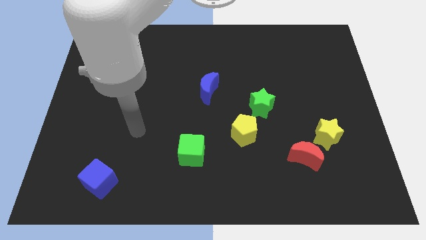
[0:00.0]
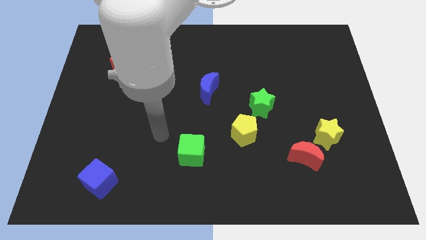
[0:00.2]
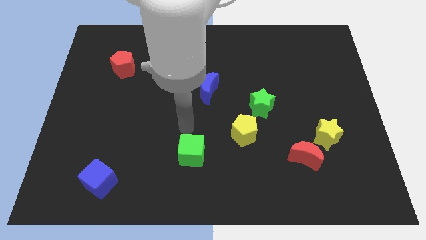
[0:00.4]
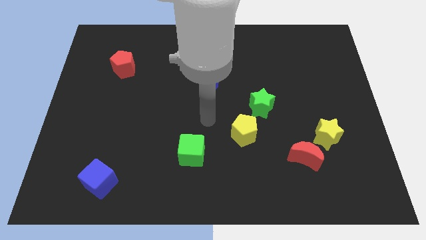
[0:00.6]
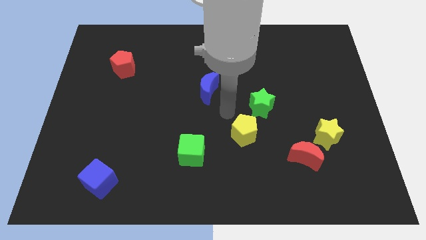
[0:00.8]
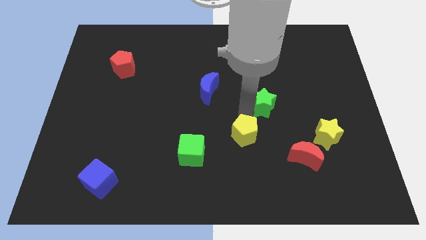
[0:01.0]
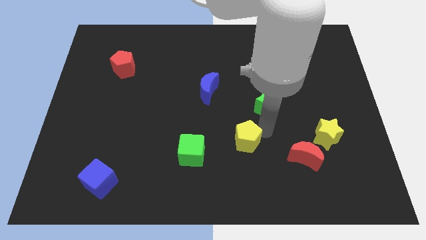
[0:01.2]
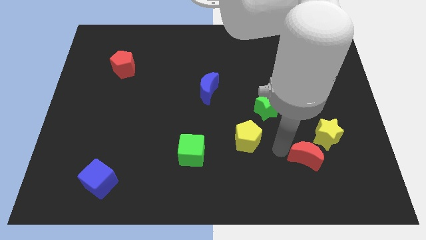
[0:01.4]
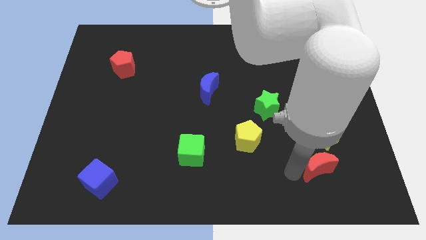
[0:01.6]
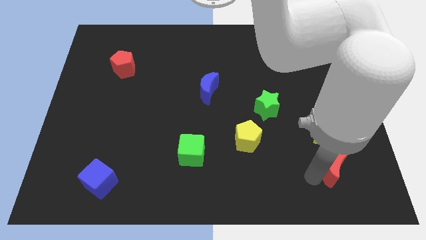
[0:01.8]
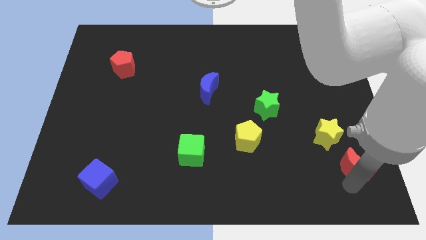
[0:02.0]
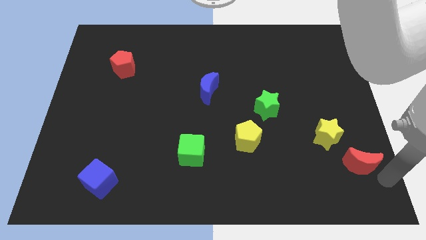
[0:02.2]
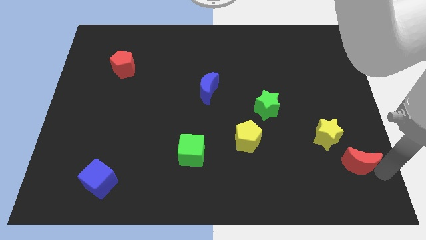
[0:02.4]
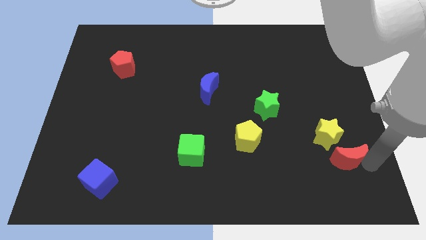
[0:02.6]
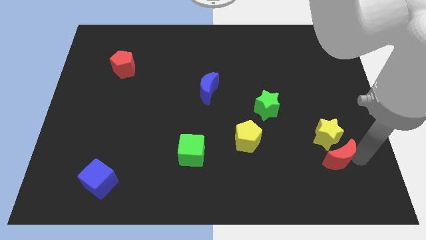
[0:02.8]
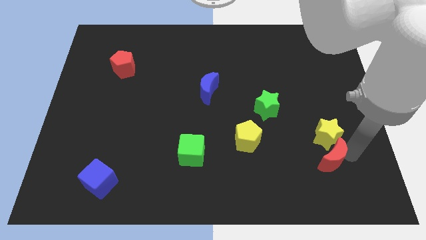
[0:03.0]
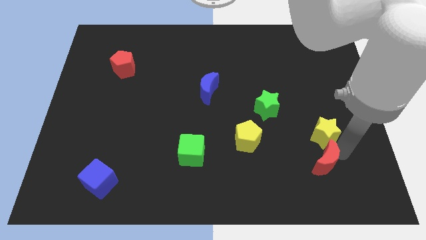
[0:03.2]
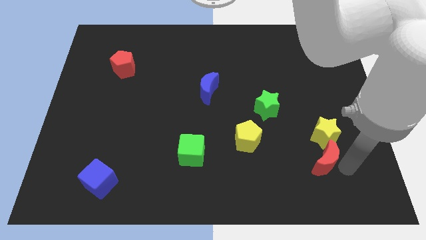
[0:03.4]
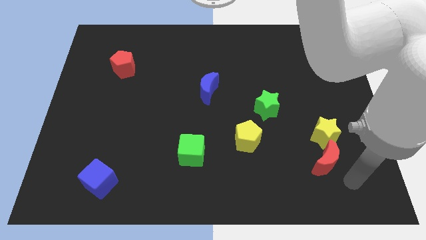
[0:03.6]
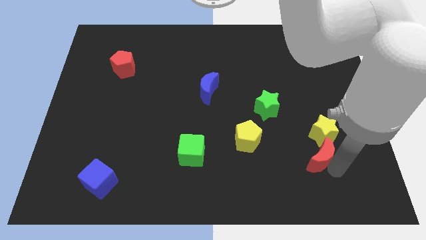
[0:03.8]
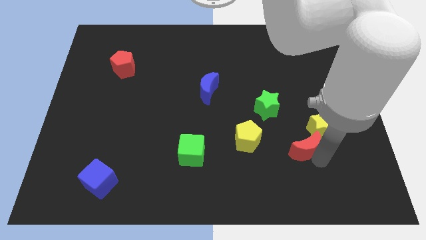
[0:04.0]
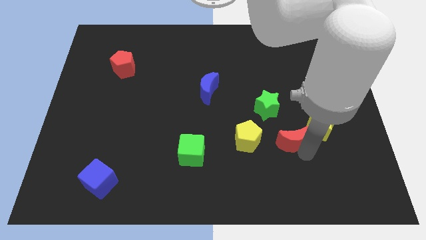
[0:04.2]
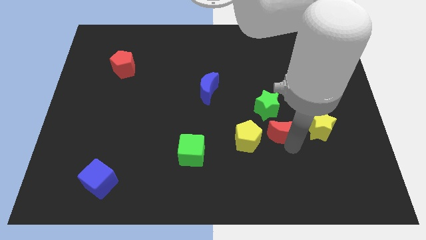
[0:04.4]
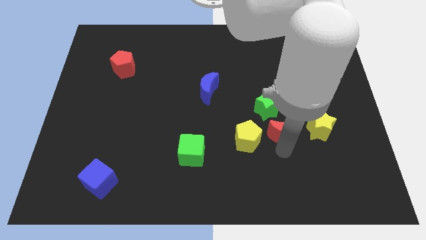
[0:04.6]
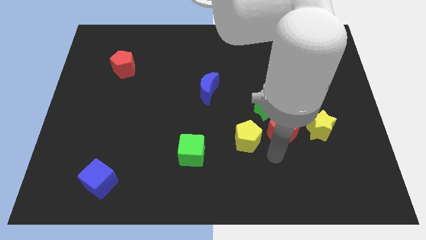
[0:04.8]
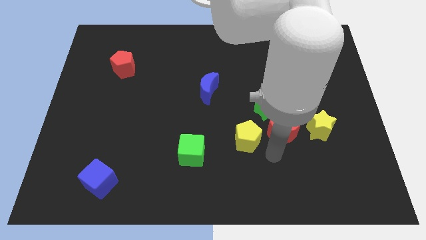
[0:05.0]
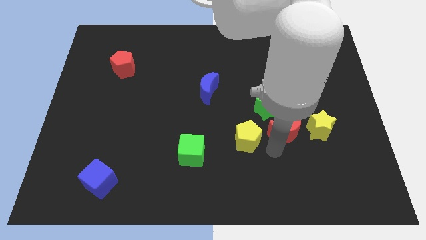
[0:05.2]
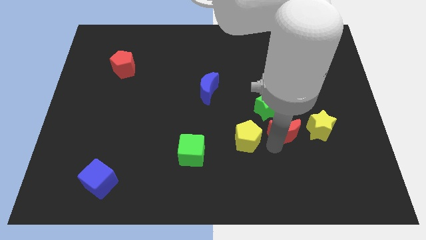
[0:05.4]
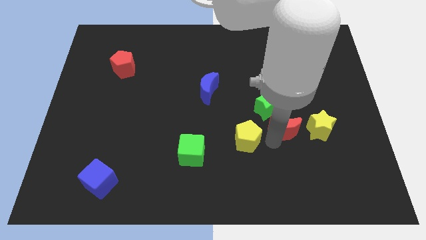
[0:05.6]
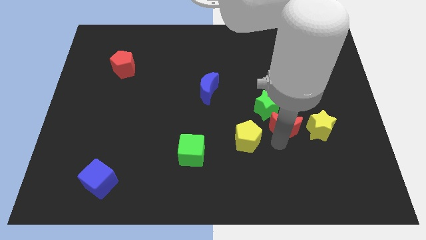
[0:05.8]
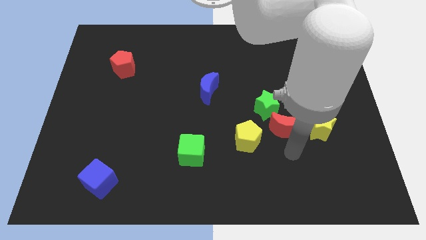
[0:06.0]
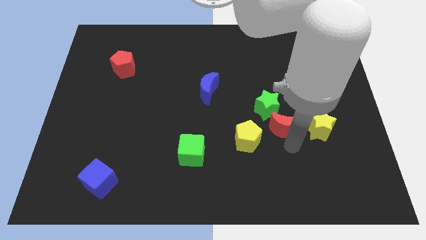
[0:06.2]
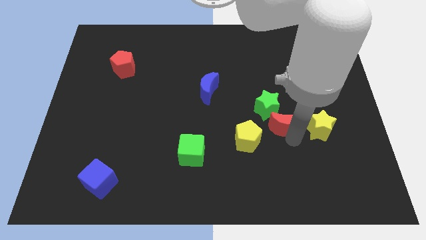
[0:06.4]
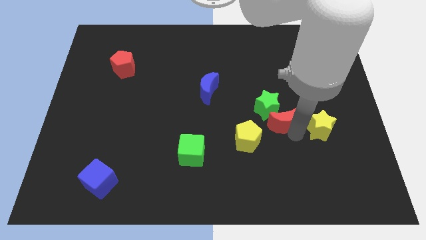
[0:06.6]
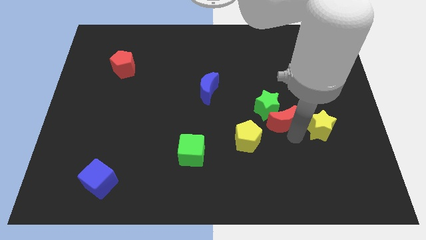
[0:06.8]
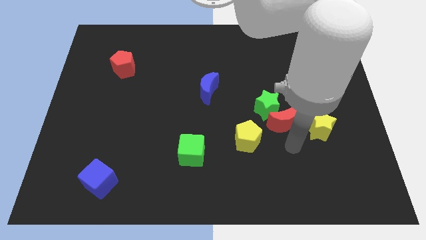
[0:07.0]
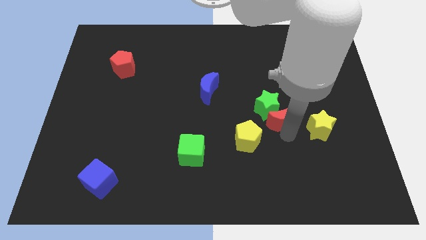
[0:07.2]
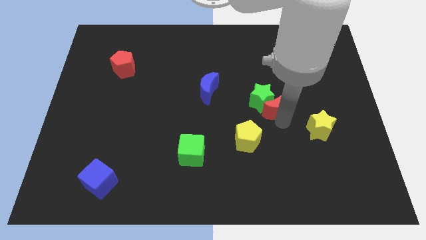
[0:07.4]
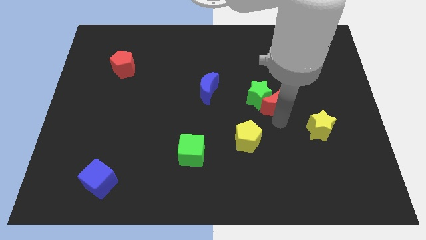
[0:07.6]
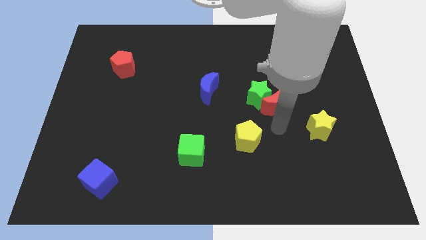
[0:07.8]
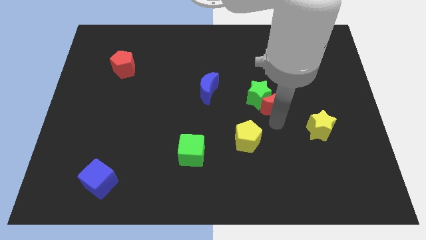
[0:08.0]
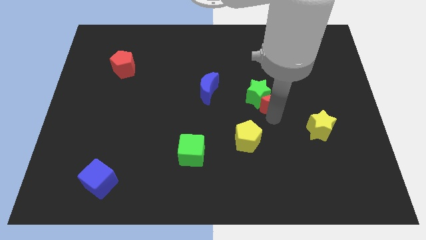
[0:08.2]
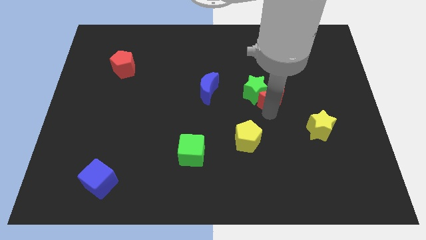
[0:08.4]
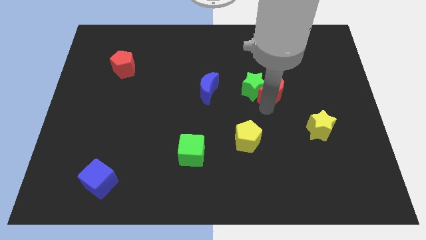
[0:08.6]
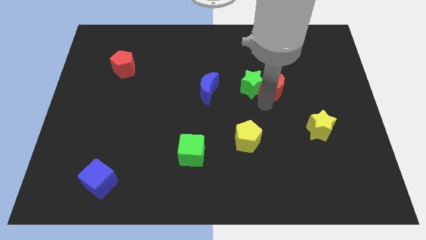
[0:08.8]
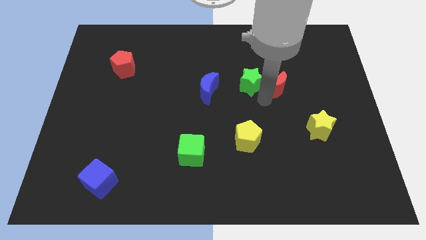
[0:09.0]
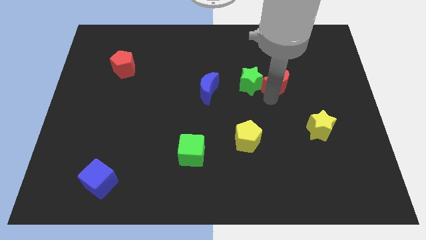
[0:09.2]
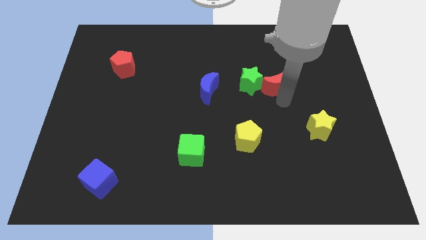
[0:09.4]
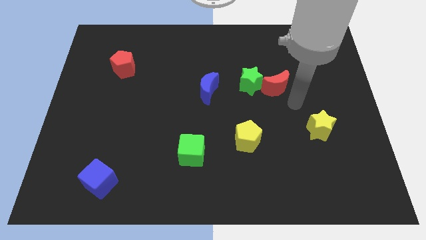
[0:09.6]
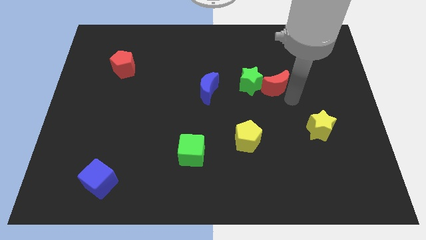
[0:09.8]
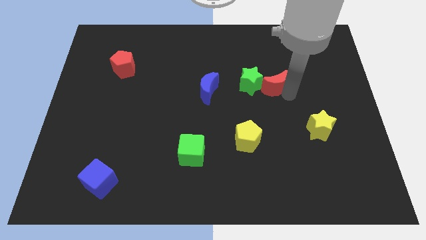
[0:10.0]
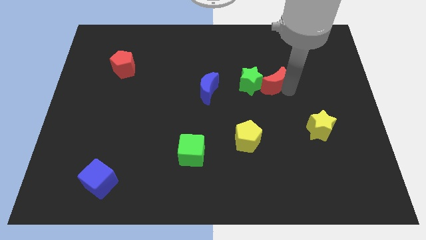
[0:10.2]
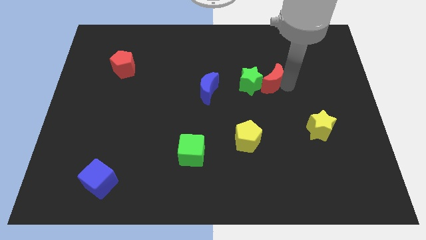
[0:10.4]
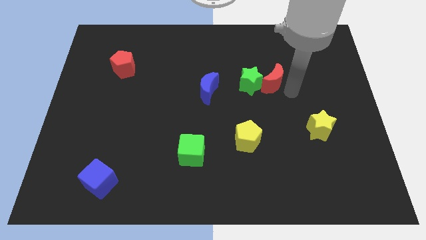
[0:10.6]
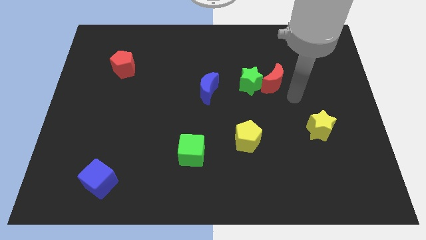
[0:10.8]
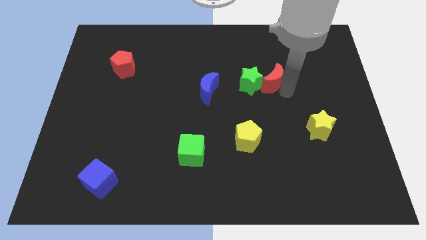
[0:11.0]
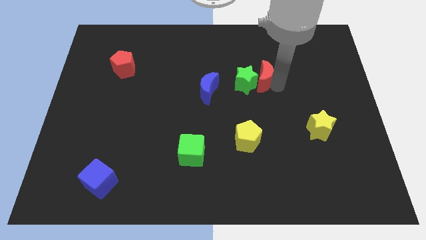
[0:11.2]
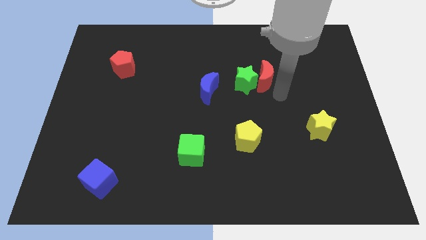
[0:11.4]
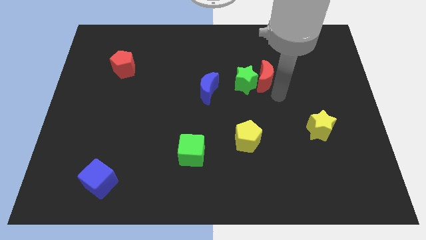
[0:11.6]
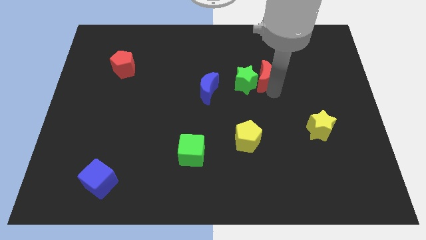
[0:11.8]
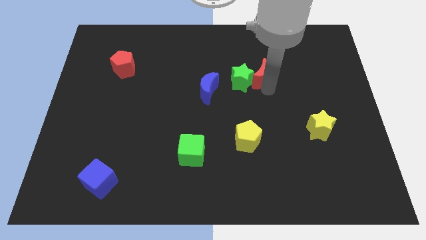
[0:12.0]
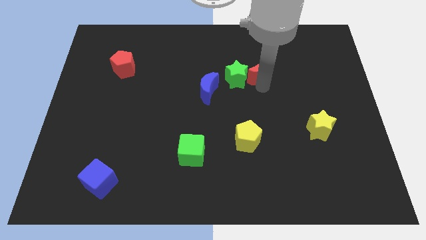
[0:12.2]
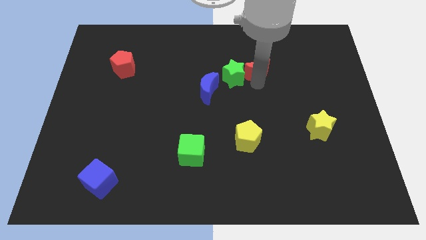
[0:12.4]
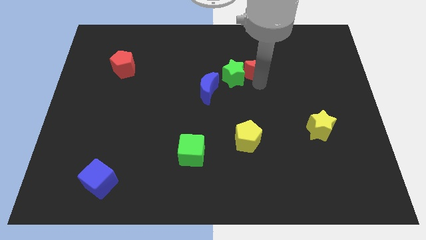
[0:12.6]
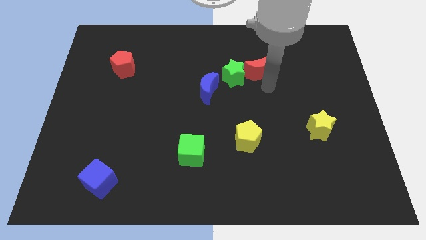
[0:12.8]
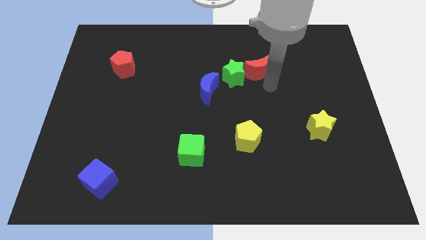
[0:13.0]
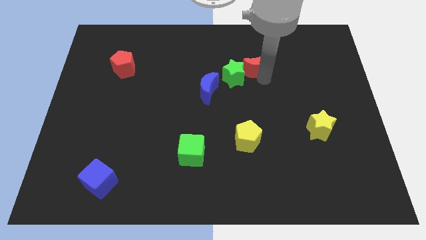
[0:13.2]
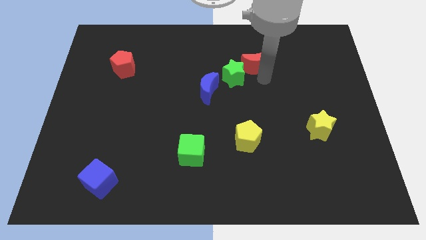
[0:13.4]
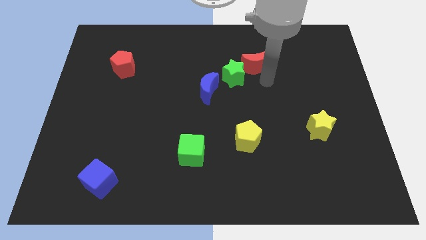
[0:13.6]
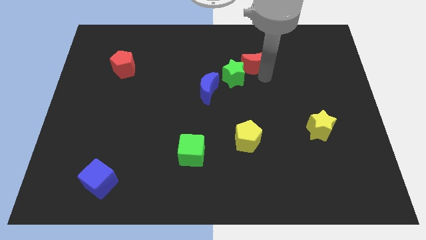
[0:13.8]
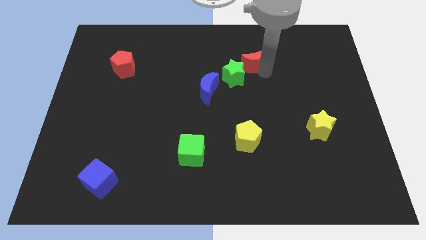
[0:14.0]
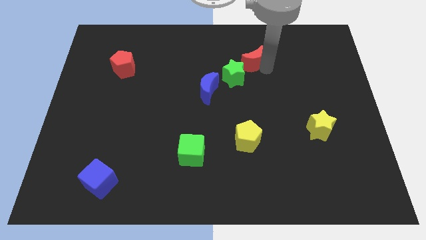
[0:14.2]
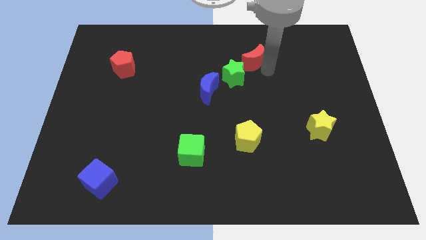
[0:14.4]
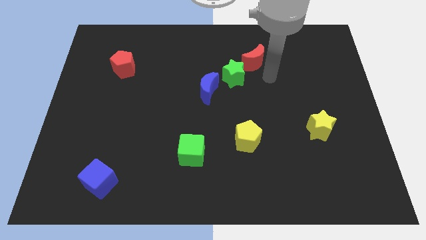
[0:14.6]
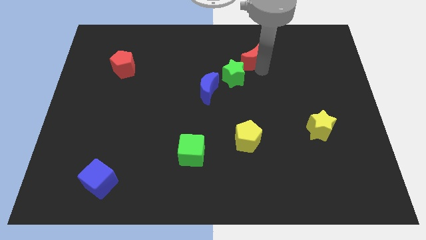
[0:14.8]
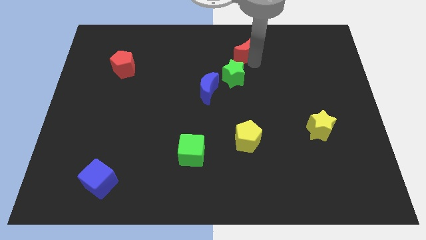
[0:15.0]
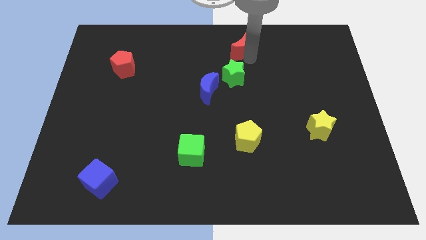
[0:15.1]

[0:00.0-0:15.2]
move the red moon to the top
